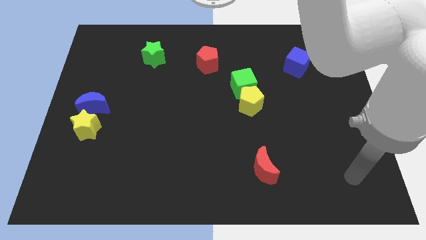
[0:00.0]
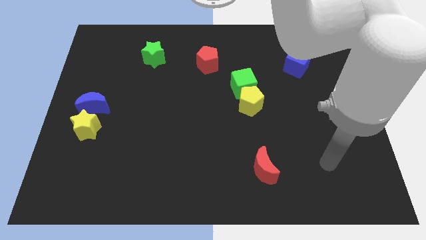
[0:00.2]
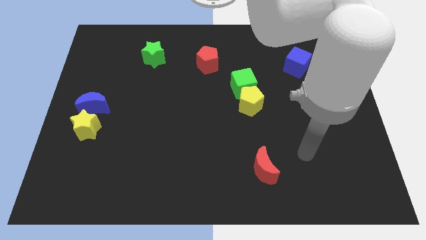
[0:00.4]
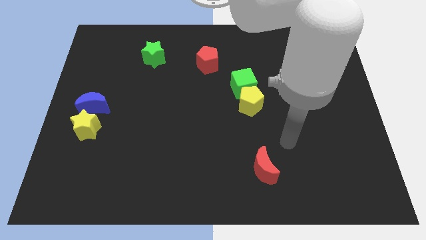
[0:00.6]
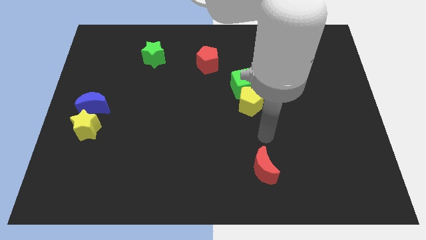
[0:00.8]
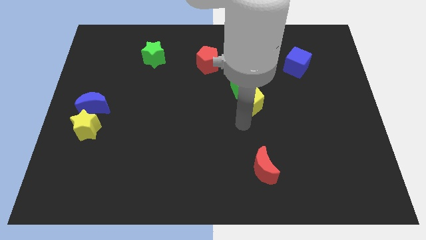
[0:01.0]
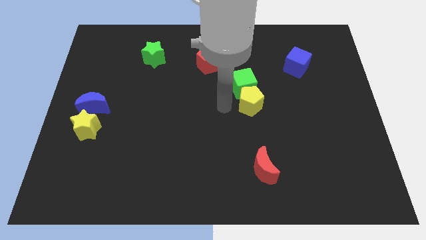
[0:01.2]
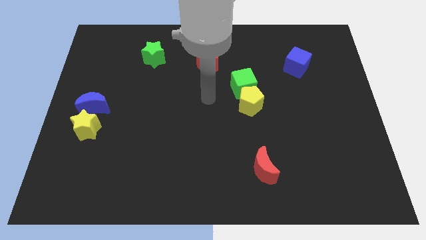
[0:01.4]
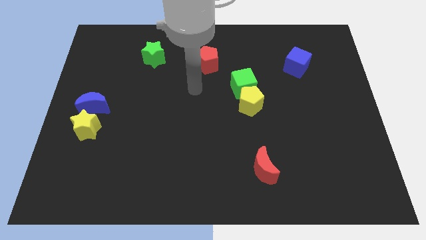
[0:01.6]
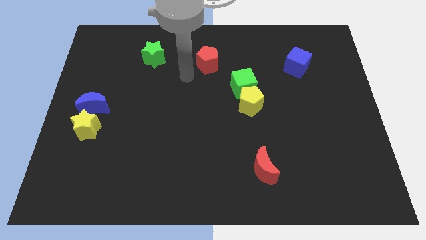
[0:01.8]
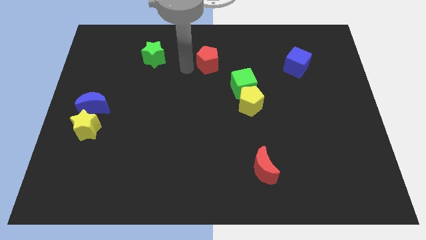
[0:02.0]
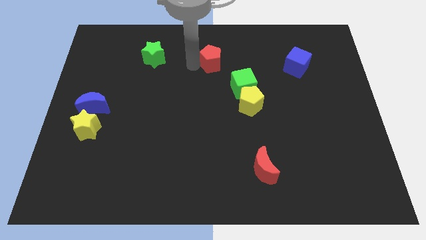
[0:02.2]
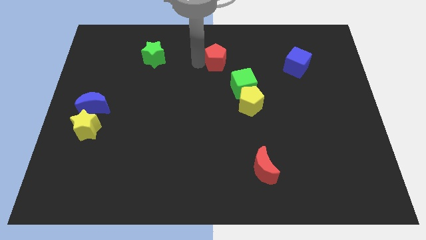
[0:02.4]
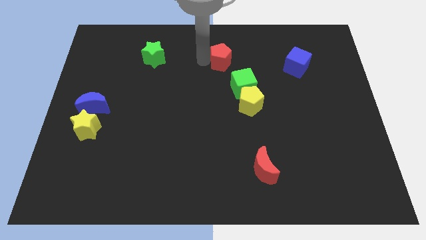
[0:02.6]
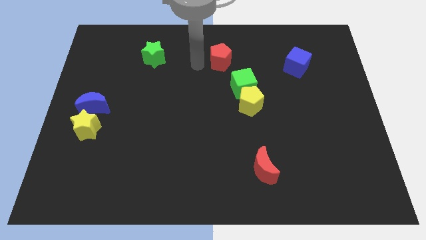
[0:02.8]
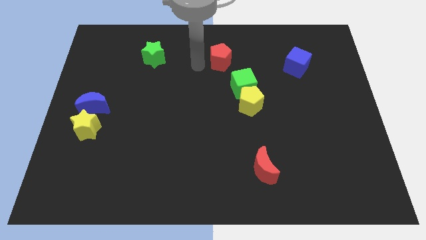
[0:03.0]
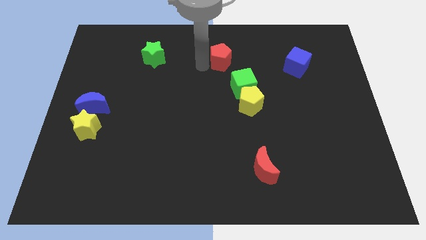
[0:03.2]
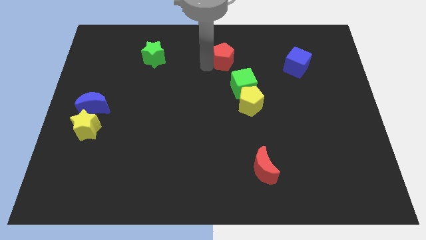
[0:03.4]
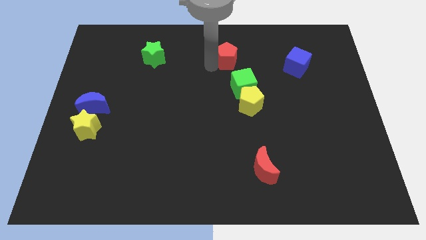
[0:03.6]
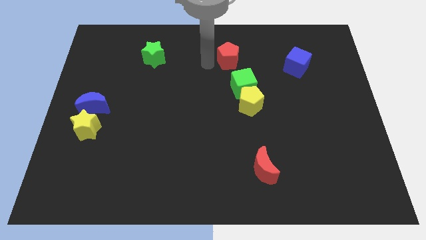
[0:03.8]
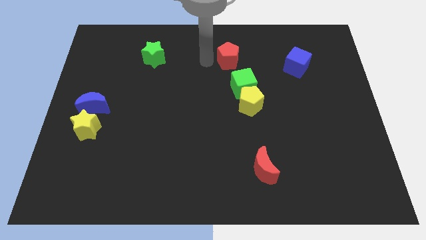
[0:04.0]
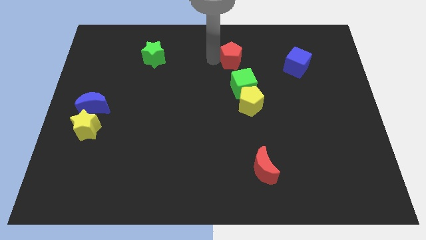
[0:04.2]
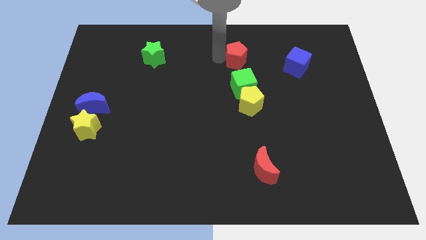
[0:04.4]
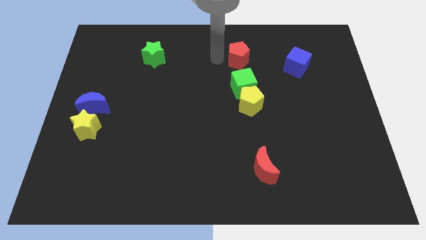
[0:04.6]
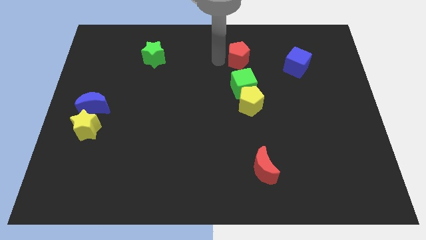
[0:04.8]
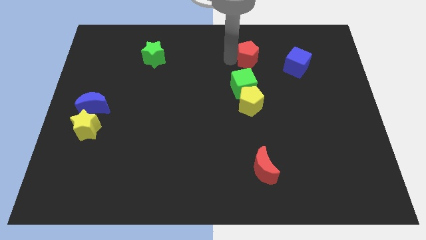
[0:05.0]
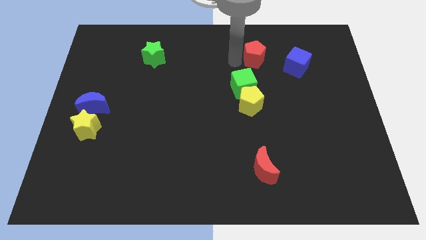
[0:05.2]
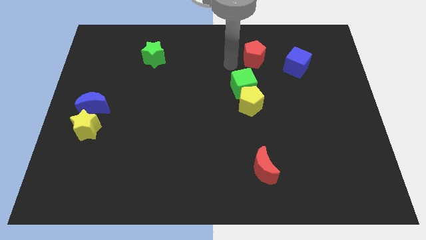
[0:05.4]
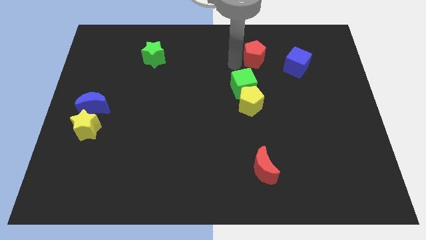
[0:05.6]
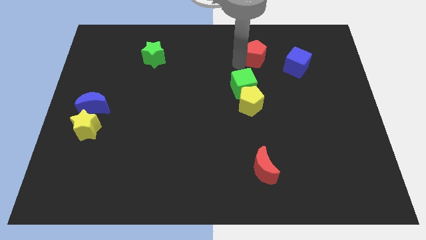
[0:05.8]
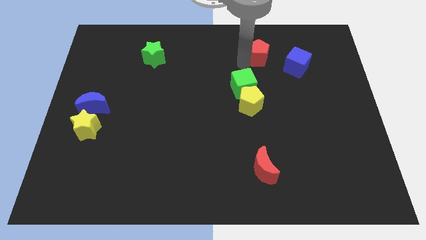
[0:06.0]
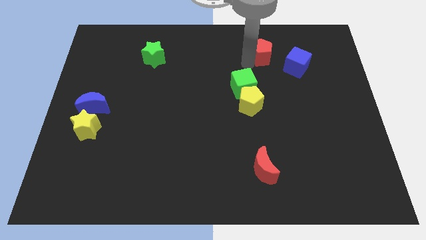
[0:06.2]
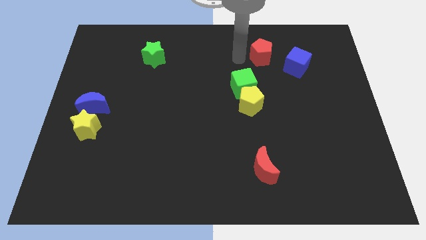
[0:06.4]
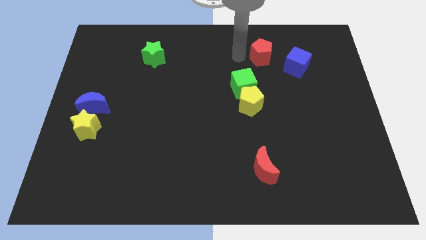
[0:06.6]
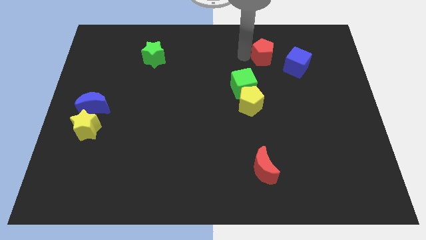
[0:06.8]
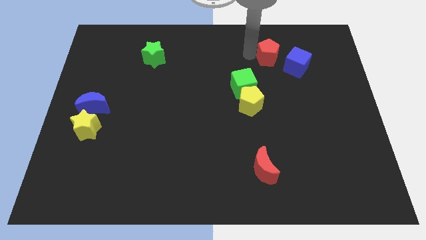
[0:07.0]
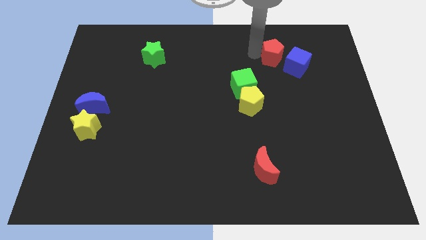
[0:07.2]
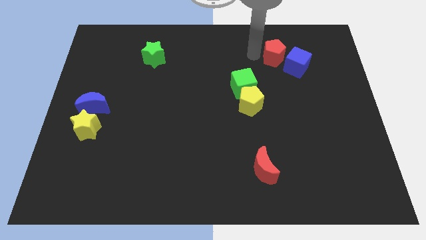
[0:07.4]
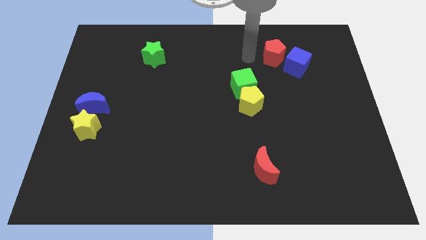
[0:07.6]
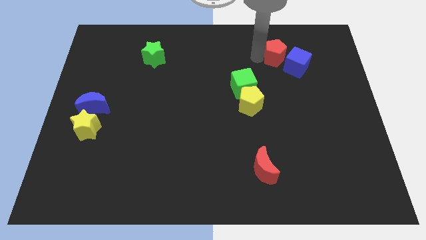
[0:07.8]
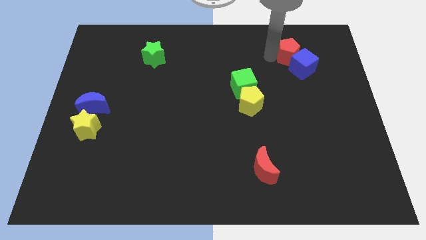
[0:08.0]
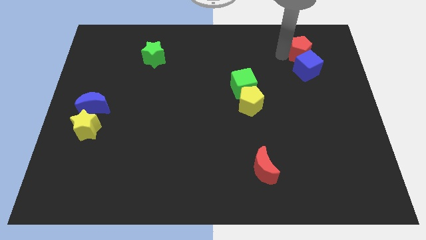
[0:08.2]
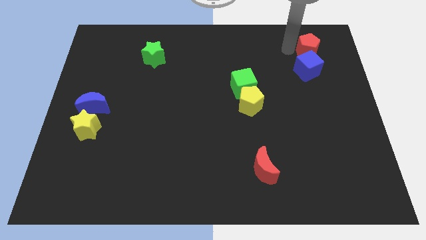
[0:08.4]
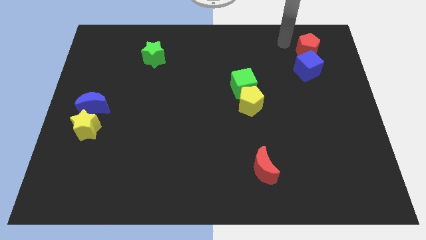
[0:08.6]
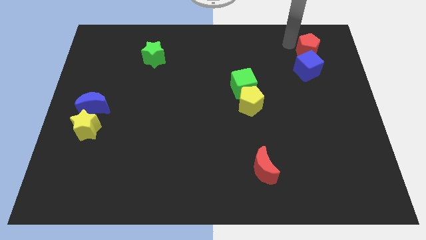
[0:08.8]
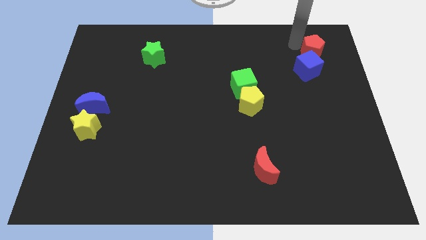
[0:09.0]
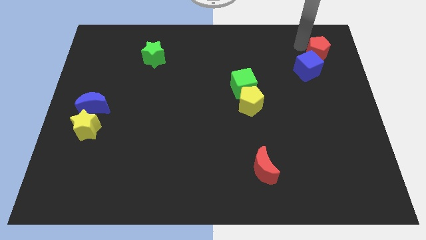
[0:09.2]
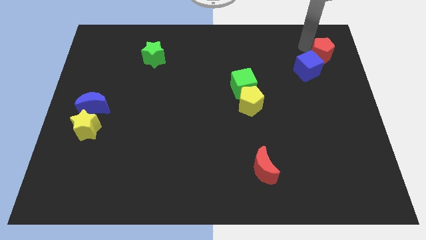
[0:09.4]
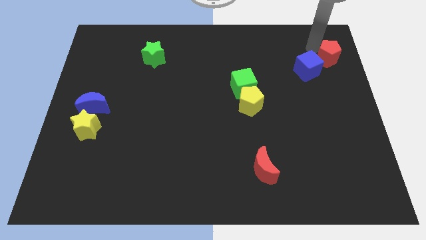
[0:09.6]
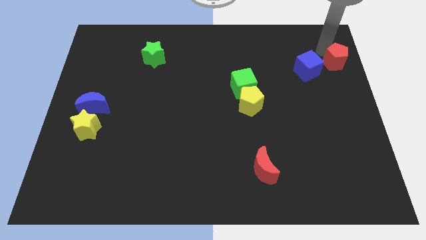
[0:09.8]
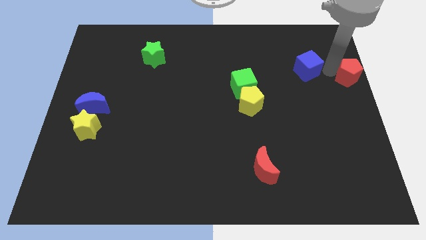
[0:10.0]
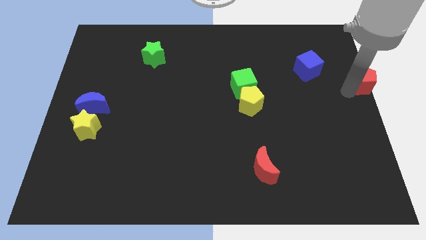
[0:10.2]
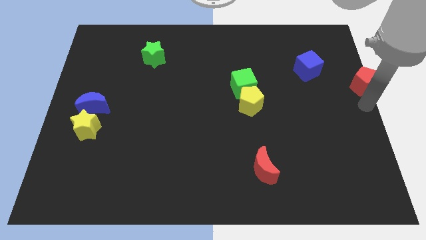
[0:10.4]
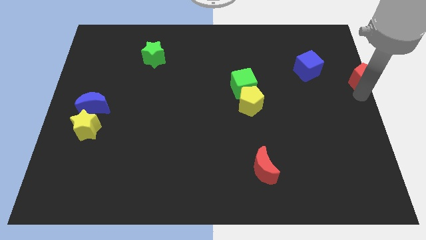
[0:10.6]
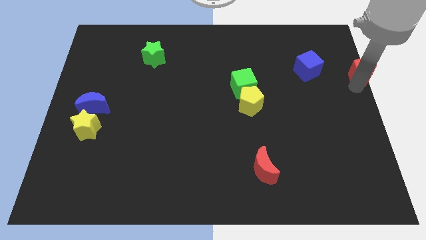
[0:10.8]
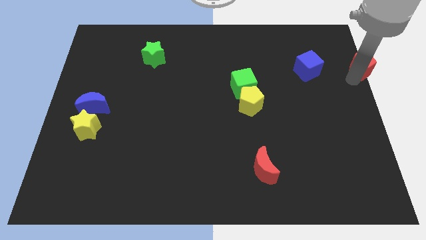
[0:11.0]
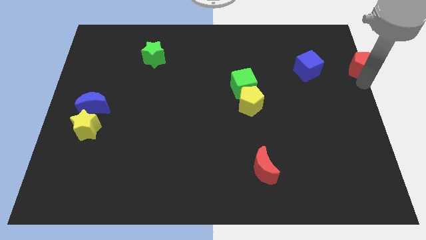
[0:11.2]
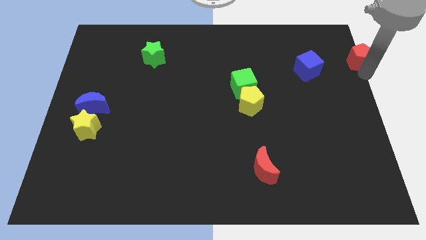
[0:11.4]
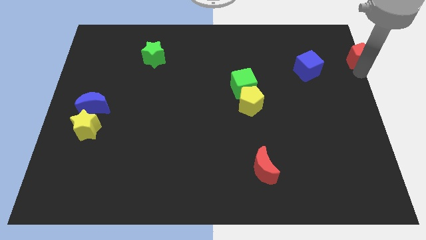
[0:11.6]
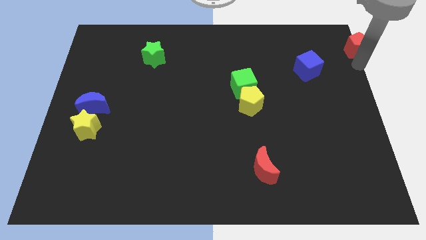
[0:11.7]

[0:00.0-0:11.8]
push the red pentagon to the upper right corner
